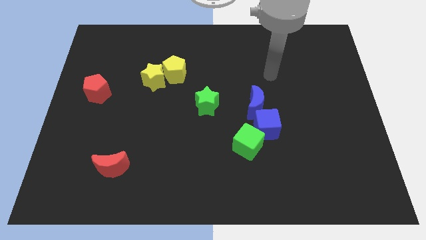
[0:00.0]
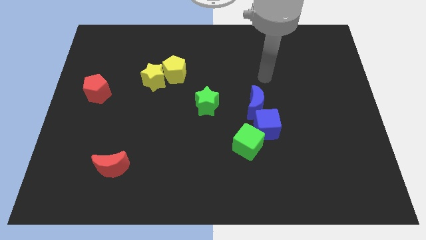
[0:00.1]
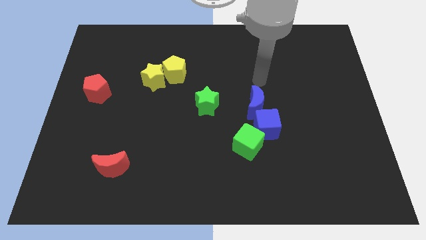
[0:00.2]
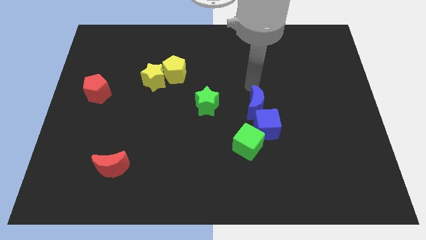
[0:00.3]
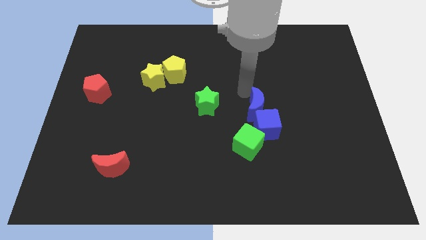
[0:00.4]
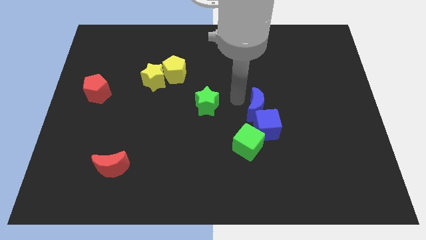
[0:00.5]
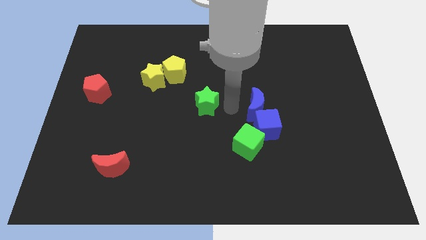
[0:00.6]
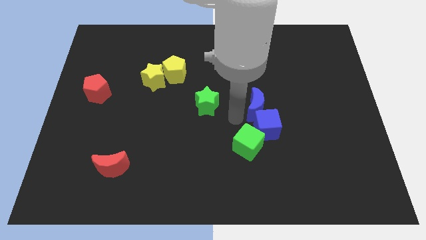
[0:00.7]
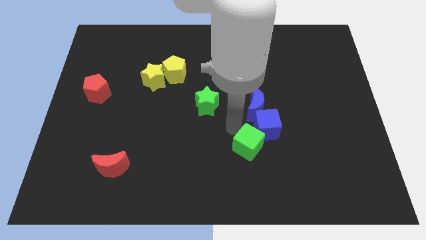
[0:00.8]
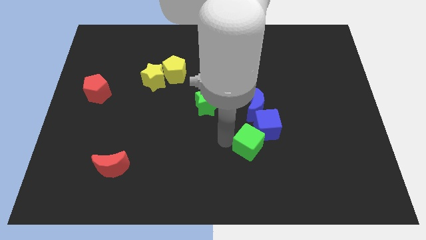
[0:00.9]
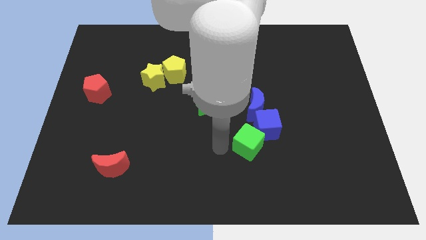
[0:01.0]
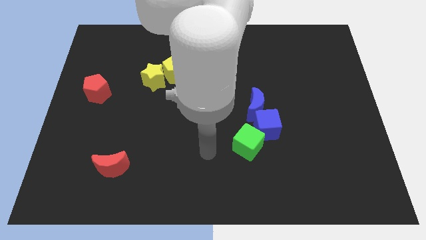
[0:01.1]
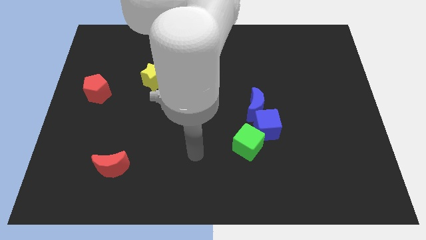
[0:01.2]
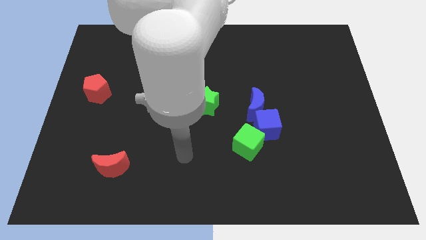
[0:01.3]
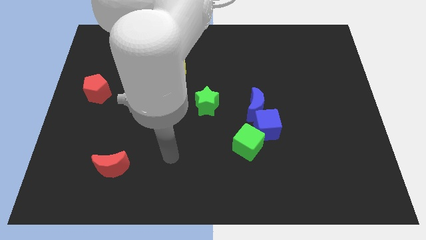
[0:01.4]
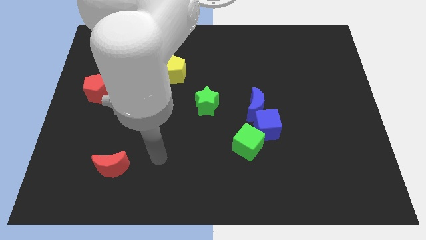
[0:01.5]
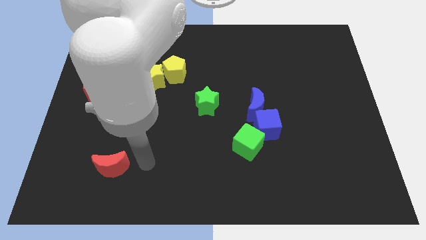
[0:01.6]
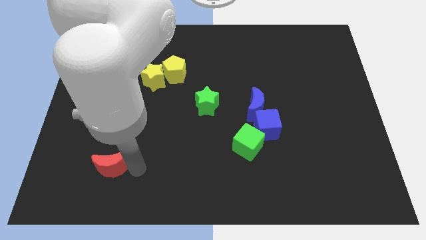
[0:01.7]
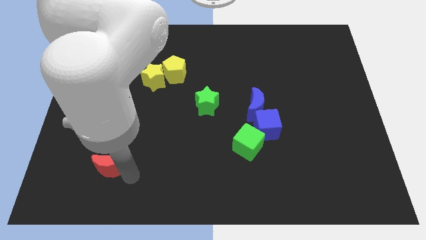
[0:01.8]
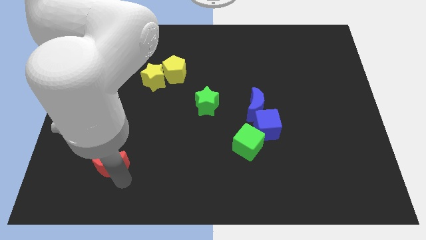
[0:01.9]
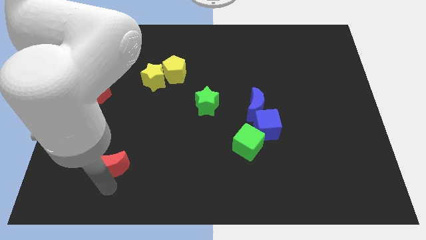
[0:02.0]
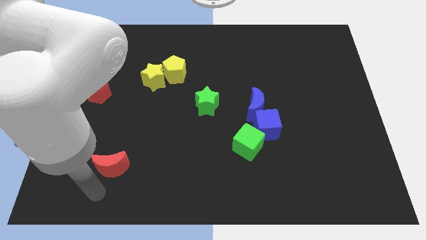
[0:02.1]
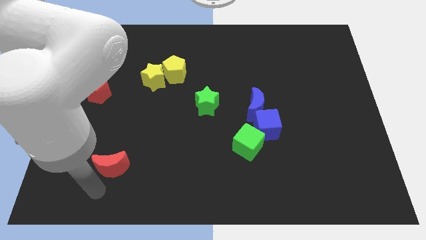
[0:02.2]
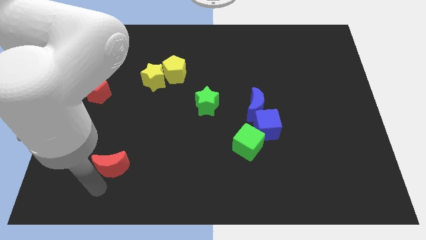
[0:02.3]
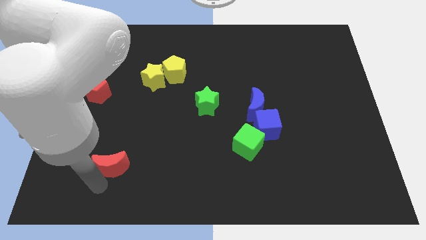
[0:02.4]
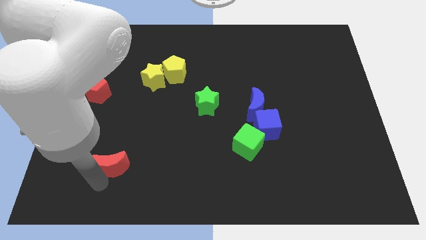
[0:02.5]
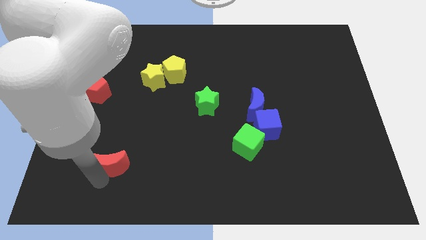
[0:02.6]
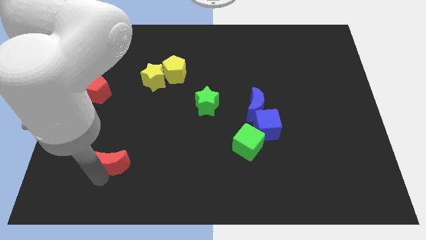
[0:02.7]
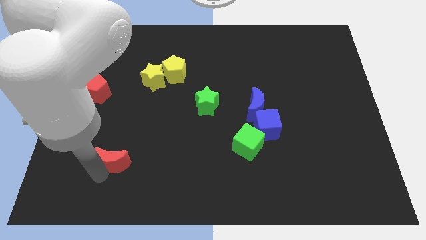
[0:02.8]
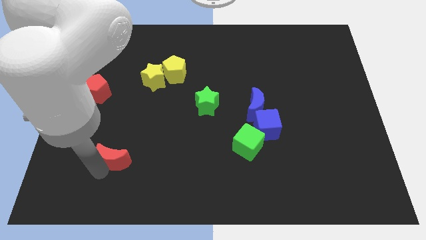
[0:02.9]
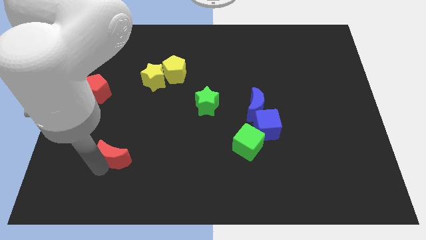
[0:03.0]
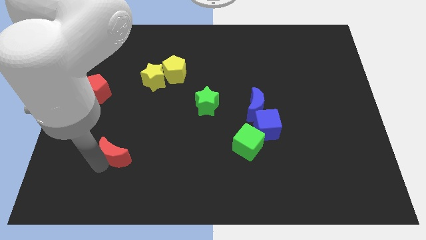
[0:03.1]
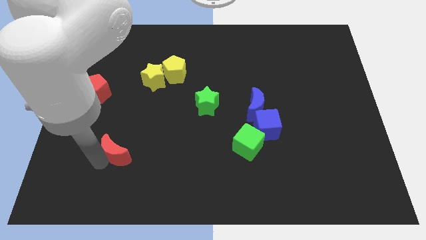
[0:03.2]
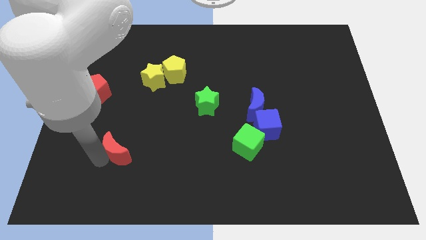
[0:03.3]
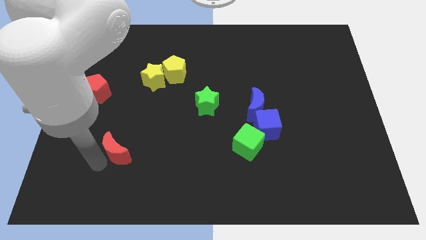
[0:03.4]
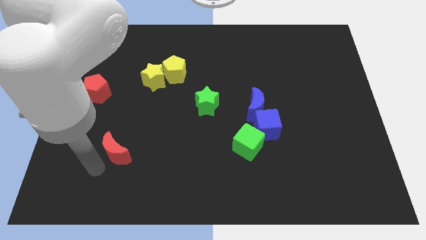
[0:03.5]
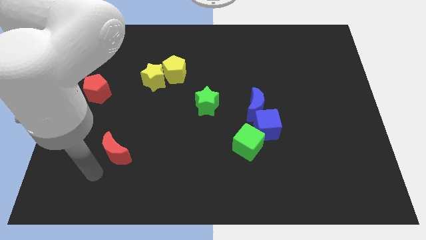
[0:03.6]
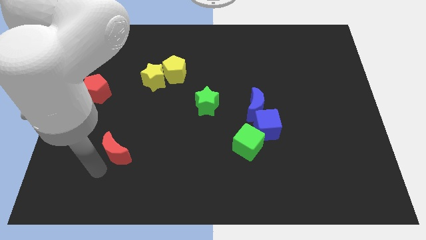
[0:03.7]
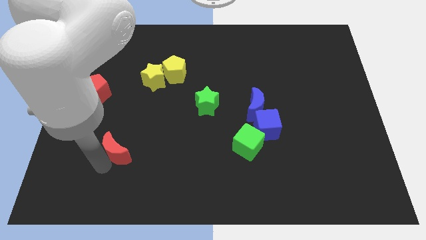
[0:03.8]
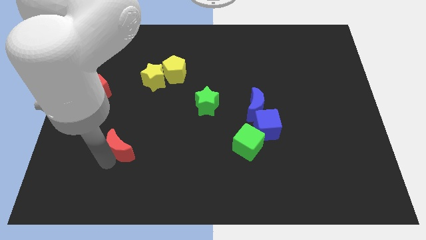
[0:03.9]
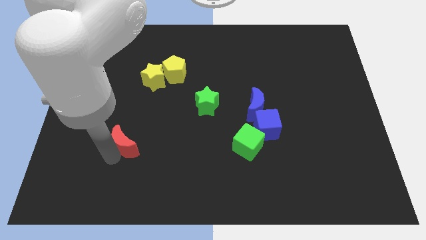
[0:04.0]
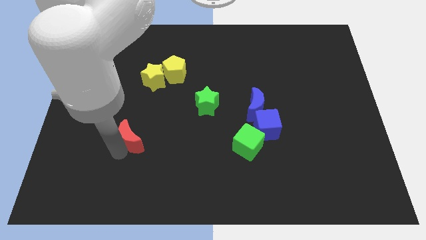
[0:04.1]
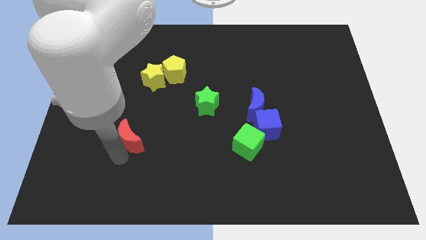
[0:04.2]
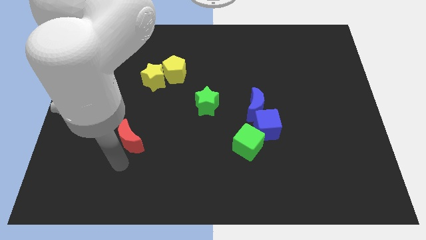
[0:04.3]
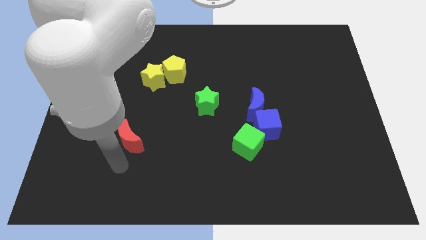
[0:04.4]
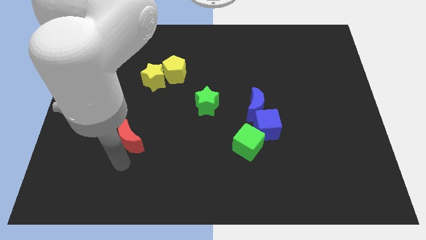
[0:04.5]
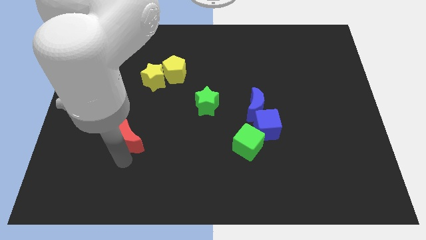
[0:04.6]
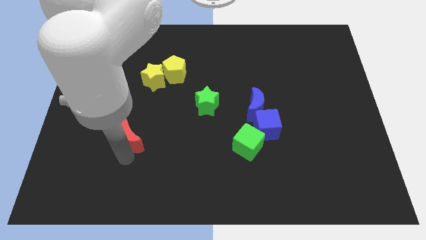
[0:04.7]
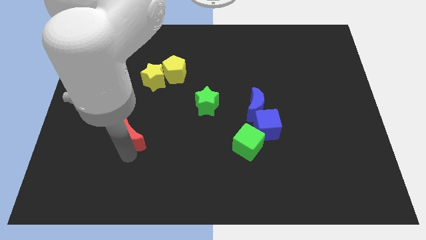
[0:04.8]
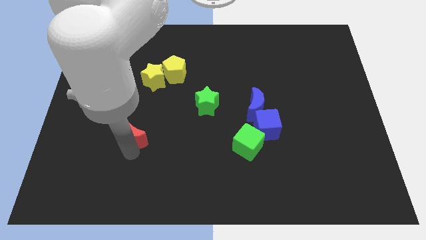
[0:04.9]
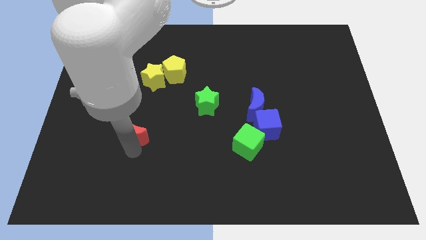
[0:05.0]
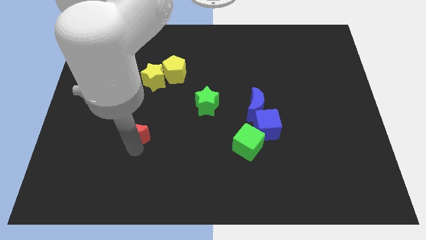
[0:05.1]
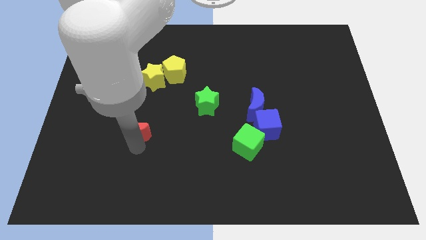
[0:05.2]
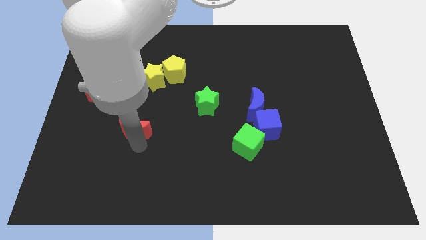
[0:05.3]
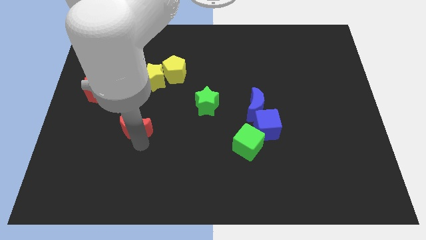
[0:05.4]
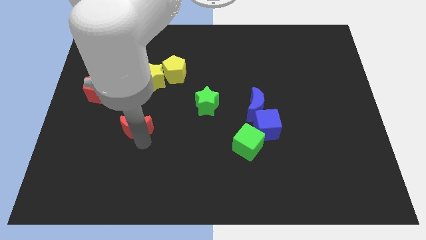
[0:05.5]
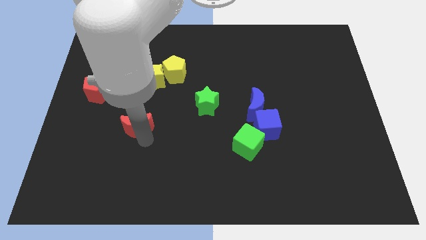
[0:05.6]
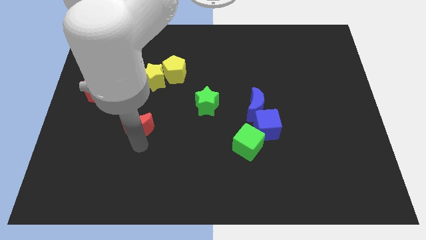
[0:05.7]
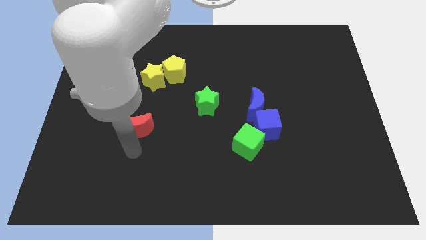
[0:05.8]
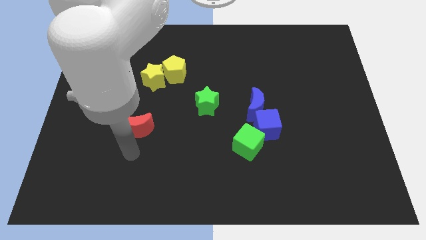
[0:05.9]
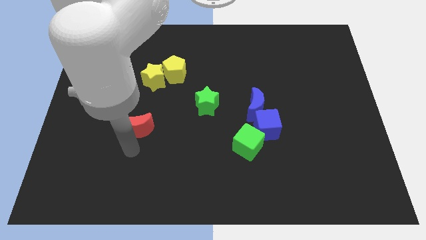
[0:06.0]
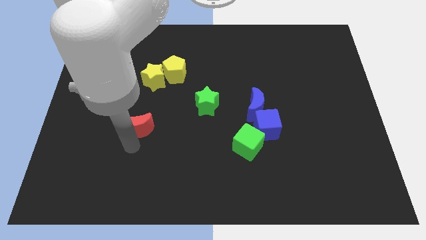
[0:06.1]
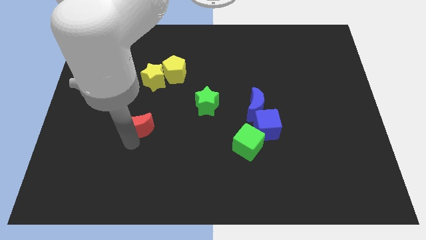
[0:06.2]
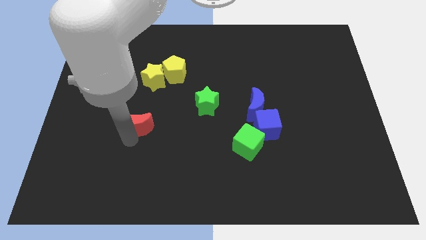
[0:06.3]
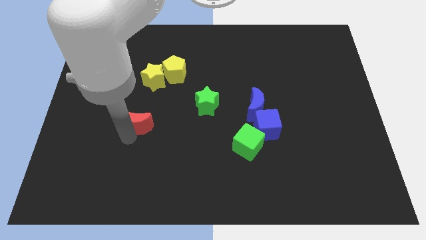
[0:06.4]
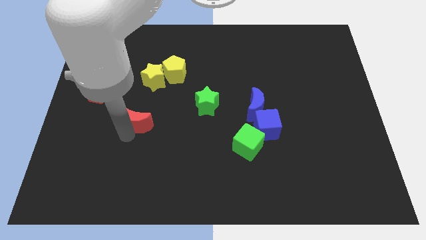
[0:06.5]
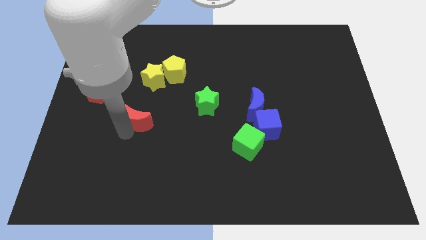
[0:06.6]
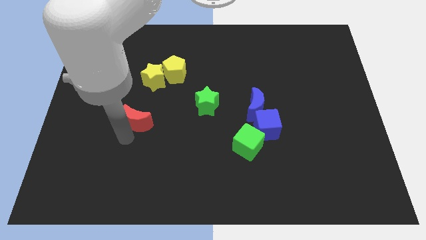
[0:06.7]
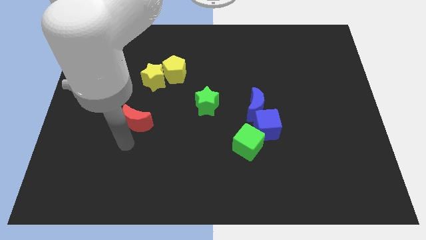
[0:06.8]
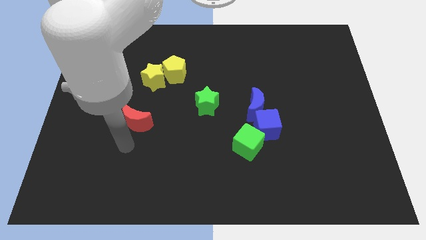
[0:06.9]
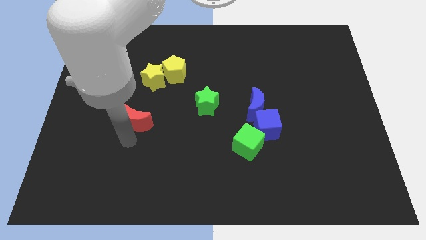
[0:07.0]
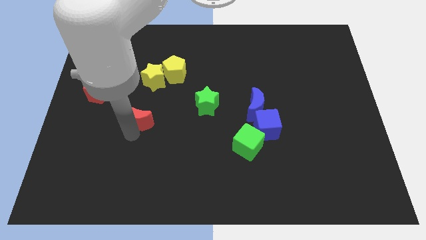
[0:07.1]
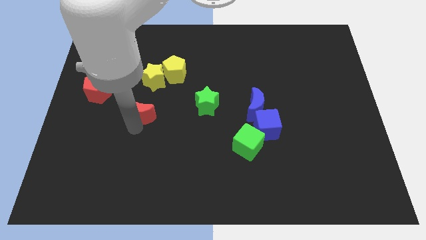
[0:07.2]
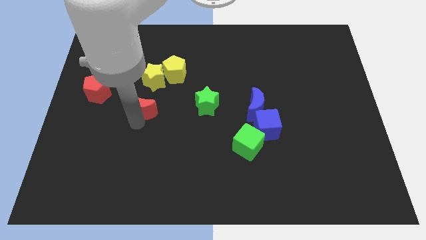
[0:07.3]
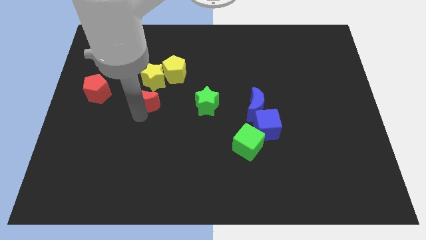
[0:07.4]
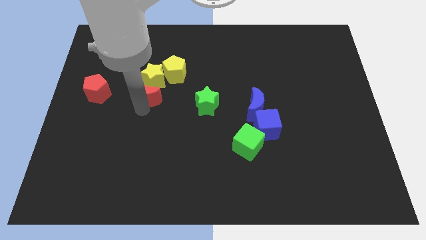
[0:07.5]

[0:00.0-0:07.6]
move the red moon next to the yellow star
